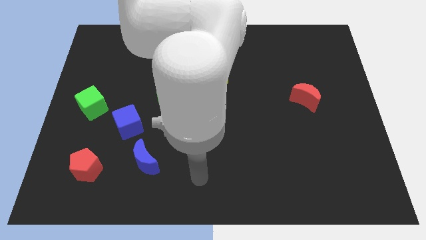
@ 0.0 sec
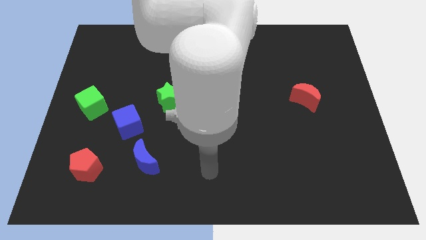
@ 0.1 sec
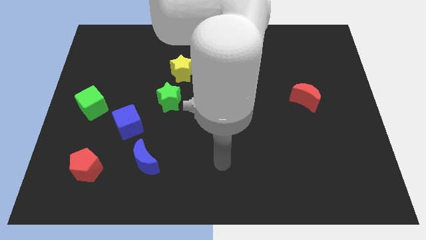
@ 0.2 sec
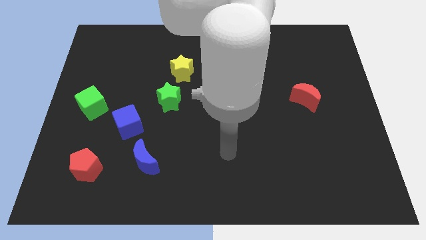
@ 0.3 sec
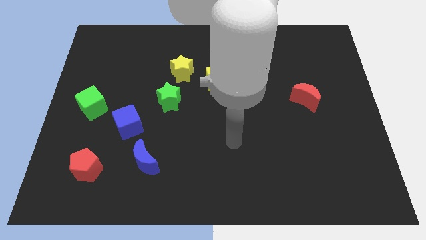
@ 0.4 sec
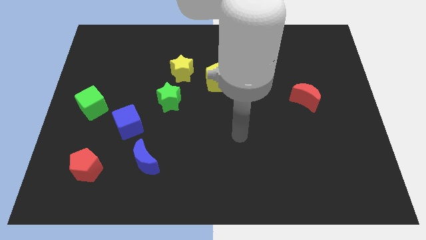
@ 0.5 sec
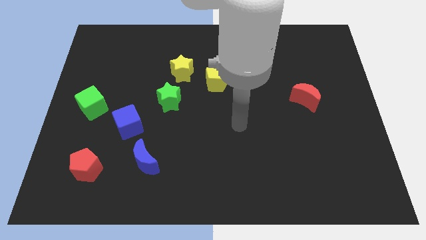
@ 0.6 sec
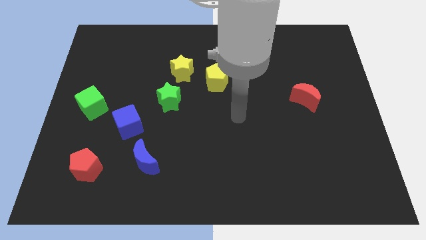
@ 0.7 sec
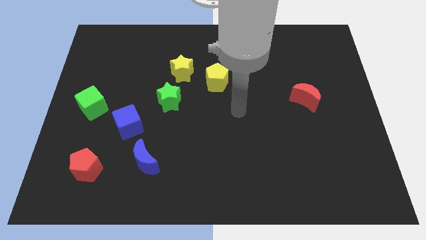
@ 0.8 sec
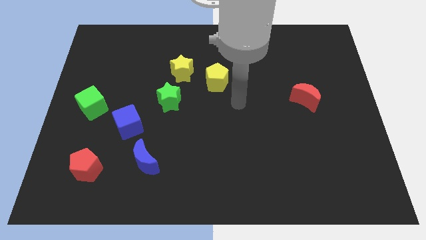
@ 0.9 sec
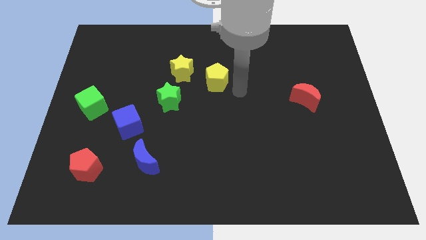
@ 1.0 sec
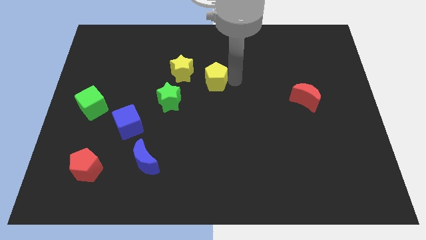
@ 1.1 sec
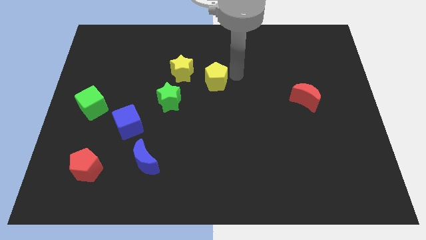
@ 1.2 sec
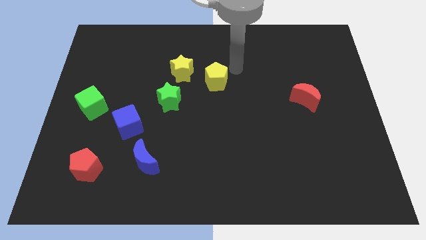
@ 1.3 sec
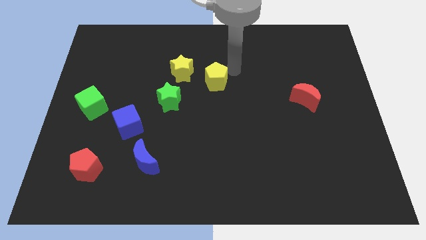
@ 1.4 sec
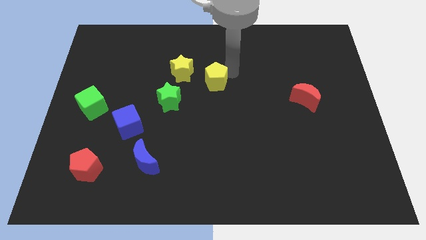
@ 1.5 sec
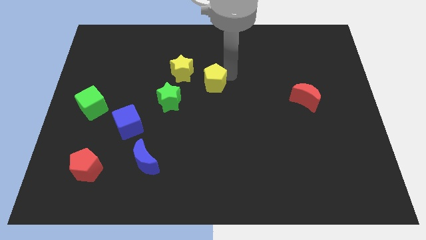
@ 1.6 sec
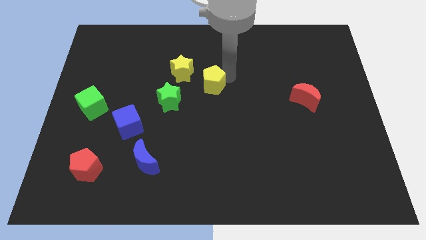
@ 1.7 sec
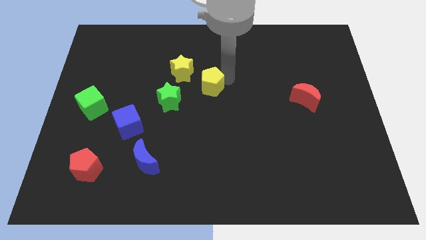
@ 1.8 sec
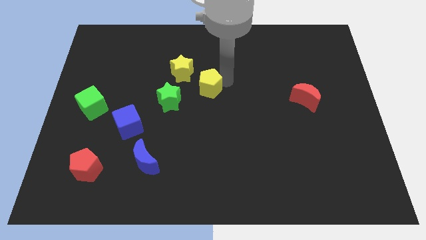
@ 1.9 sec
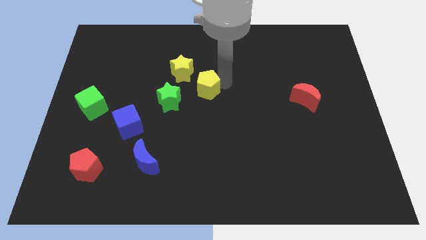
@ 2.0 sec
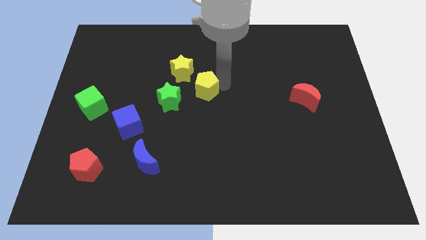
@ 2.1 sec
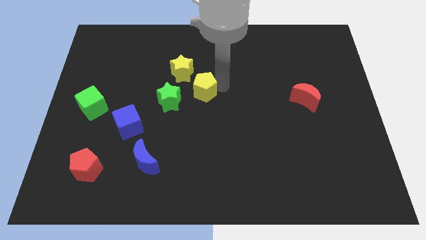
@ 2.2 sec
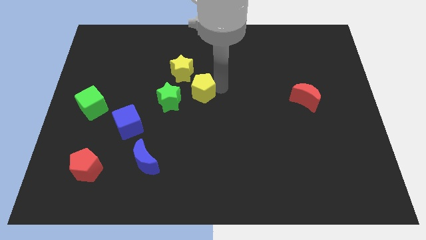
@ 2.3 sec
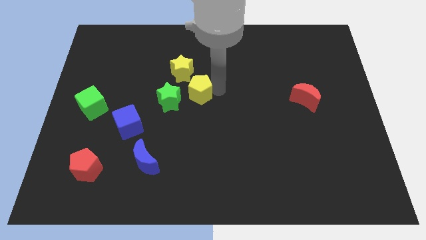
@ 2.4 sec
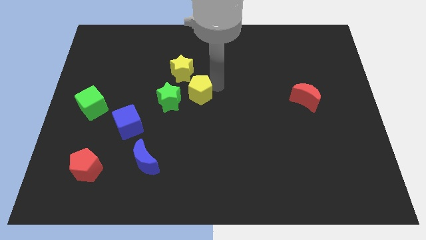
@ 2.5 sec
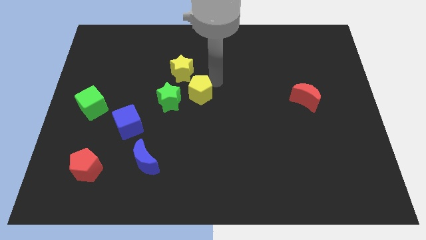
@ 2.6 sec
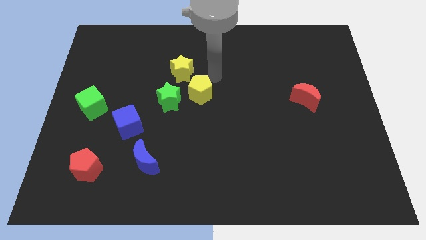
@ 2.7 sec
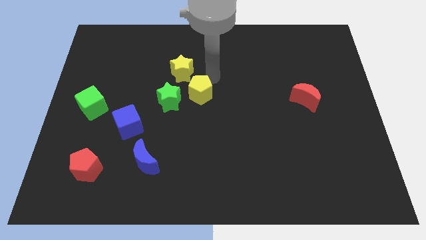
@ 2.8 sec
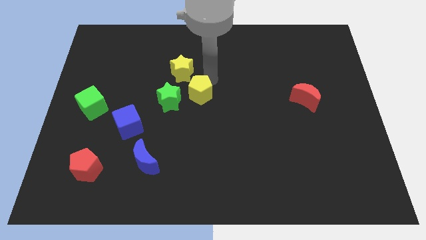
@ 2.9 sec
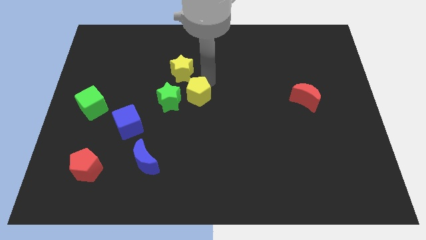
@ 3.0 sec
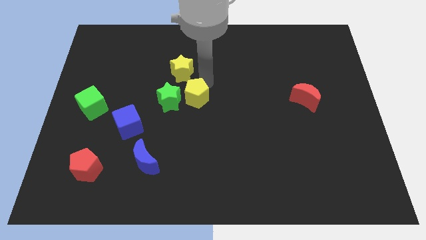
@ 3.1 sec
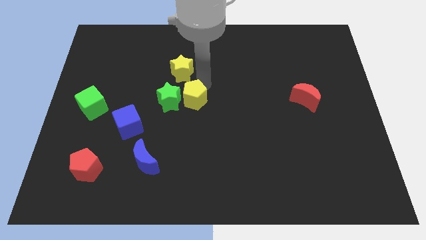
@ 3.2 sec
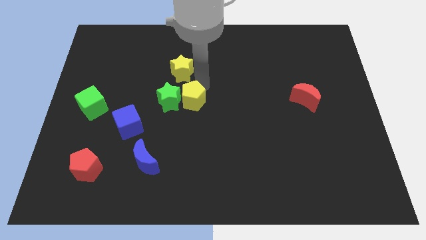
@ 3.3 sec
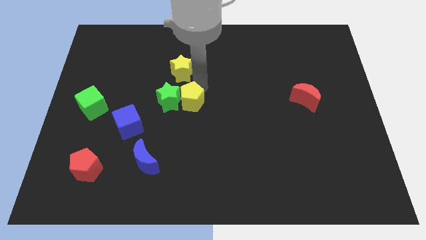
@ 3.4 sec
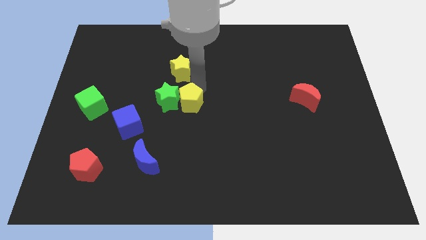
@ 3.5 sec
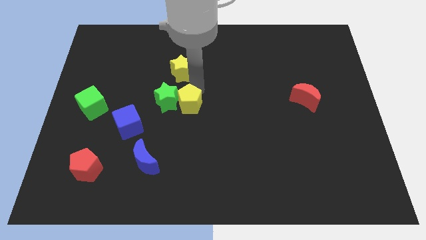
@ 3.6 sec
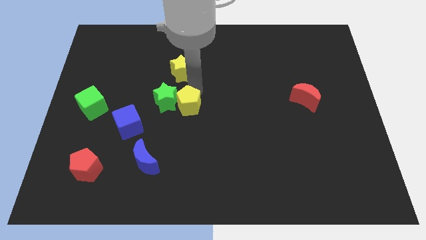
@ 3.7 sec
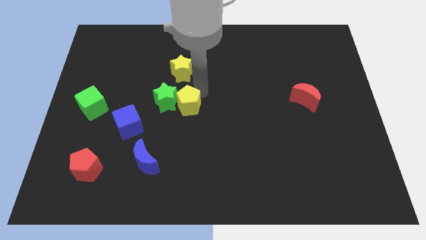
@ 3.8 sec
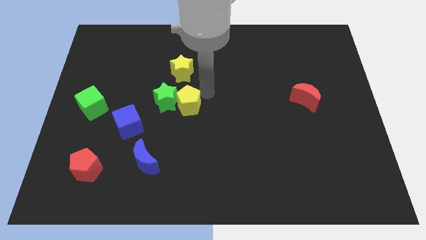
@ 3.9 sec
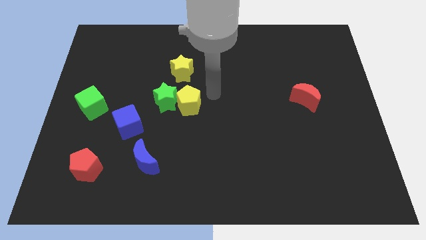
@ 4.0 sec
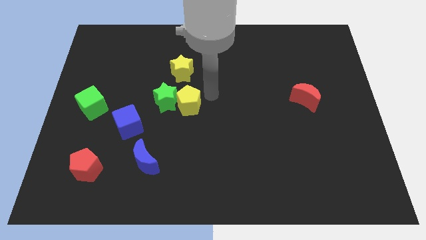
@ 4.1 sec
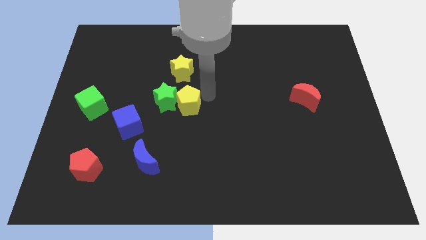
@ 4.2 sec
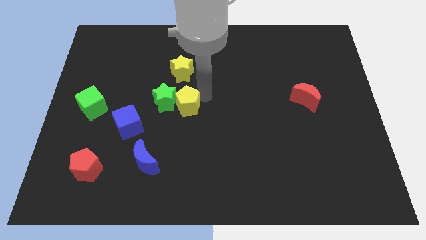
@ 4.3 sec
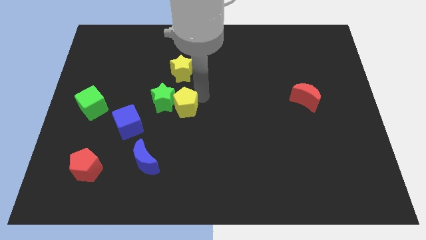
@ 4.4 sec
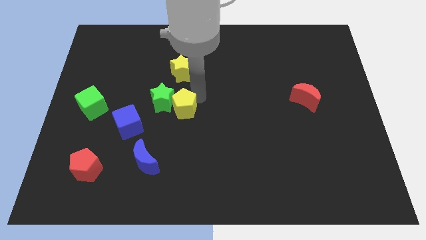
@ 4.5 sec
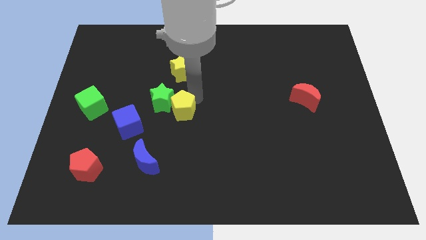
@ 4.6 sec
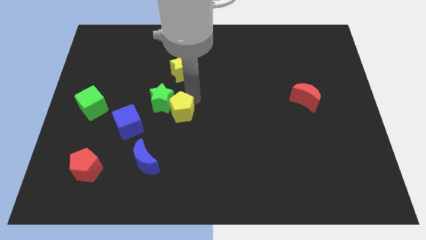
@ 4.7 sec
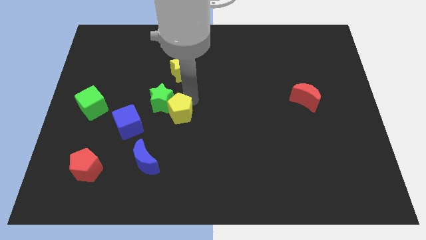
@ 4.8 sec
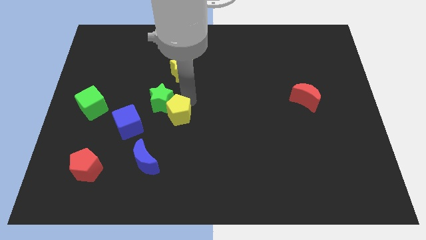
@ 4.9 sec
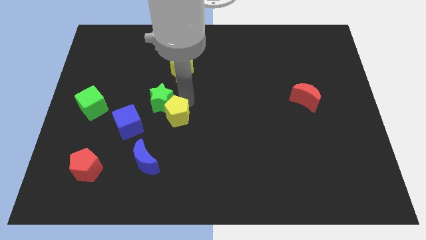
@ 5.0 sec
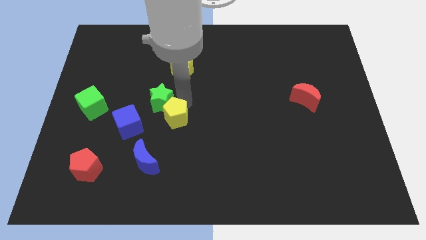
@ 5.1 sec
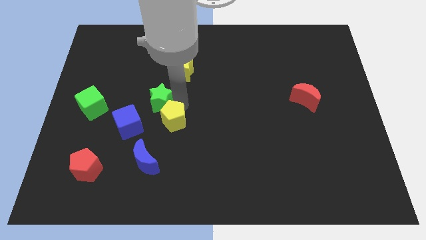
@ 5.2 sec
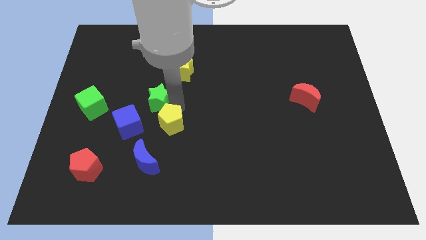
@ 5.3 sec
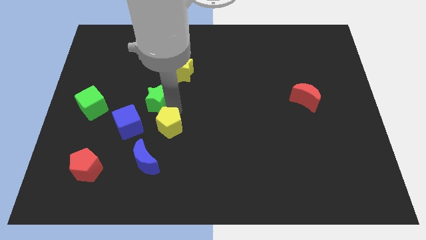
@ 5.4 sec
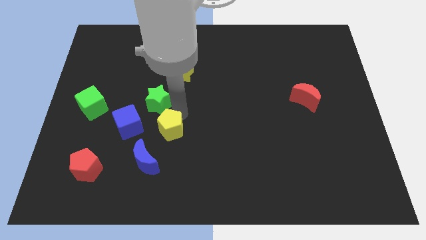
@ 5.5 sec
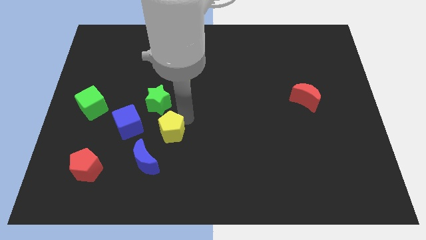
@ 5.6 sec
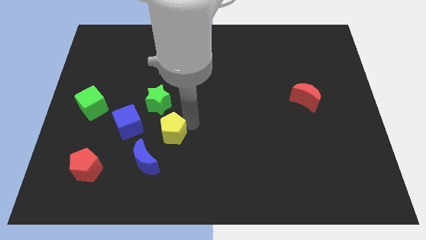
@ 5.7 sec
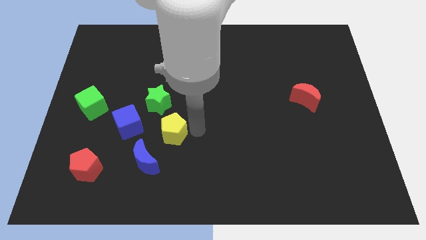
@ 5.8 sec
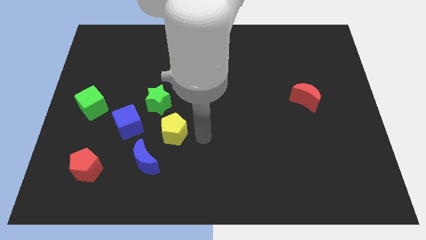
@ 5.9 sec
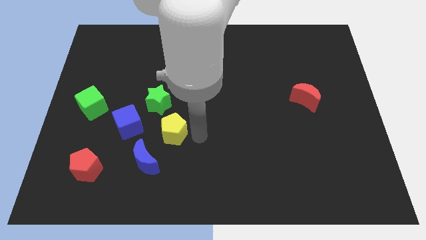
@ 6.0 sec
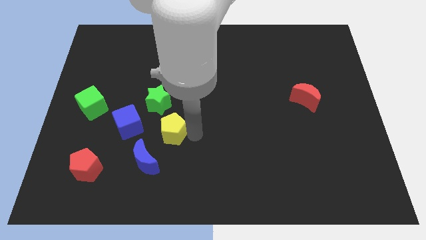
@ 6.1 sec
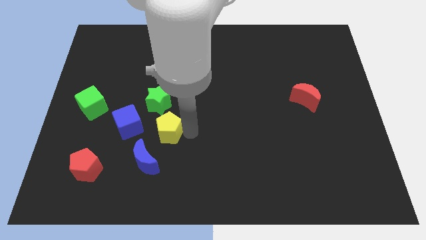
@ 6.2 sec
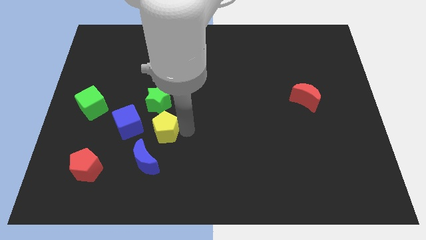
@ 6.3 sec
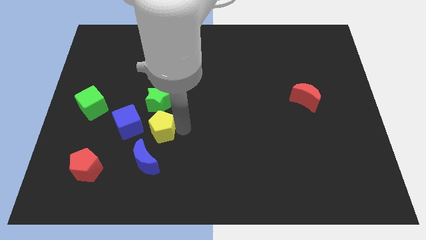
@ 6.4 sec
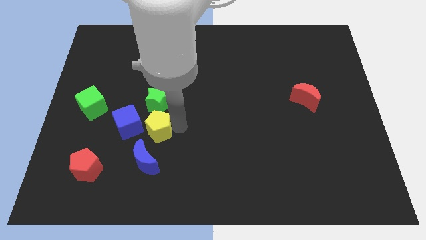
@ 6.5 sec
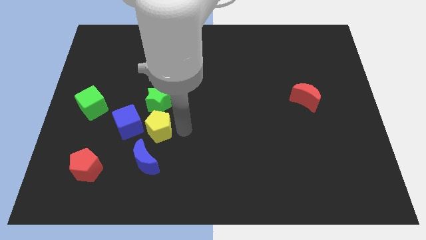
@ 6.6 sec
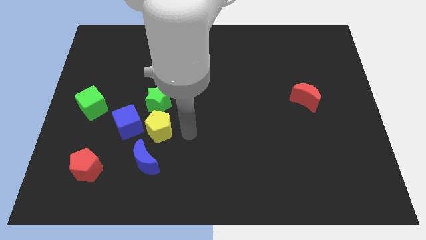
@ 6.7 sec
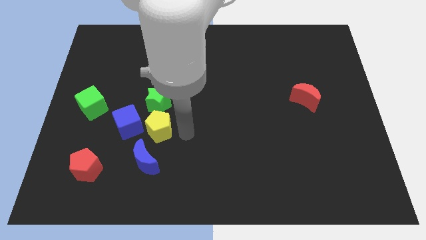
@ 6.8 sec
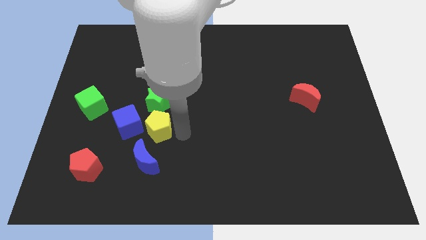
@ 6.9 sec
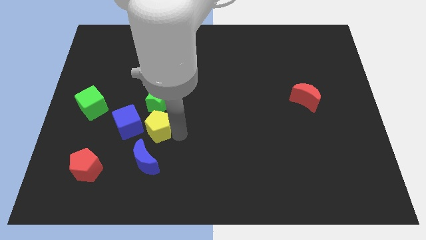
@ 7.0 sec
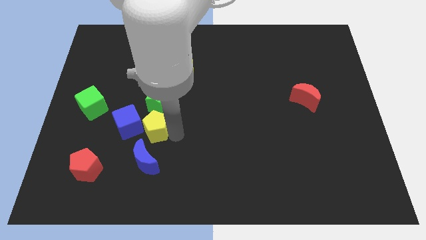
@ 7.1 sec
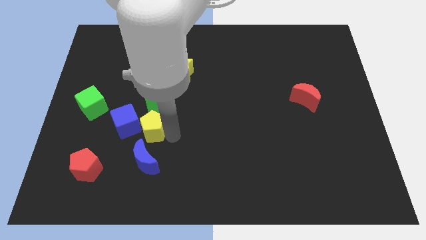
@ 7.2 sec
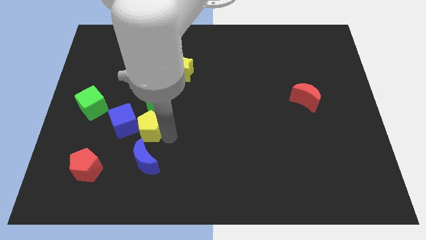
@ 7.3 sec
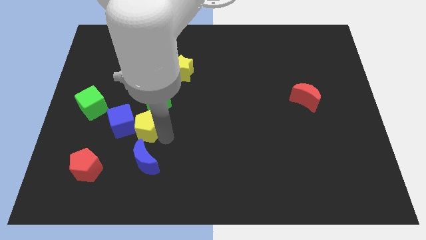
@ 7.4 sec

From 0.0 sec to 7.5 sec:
push the yellow pentagon next to the blue cube

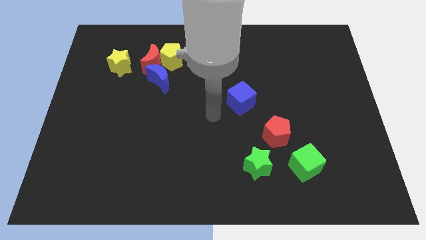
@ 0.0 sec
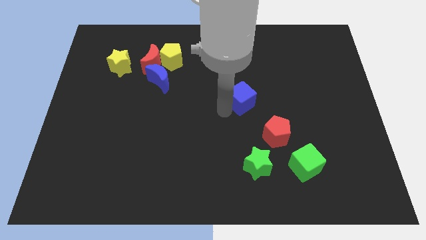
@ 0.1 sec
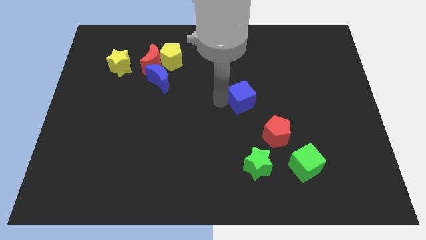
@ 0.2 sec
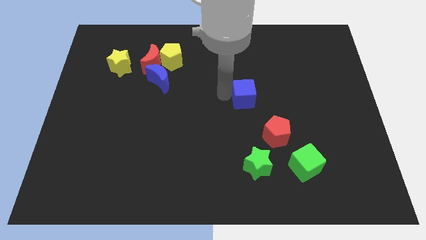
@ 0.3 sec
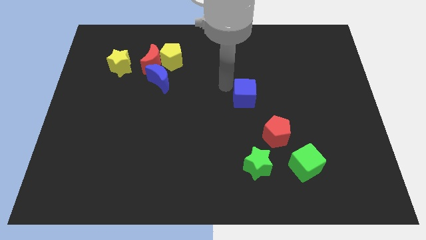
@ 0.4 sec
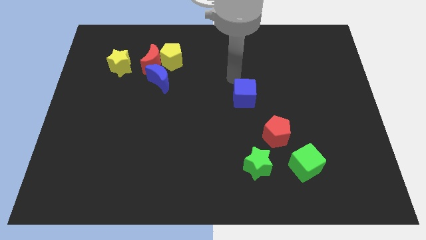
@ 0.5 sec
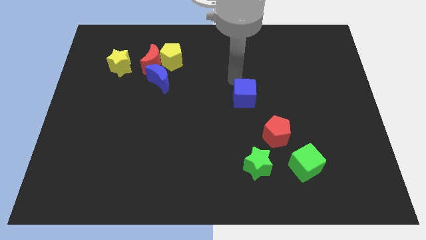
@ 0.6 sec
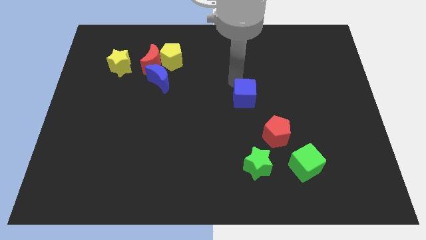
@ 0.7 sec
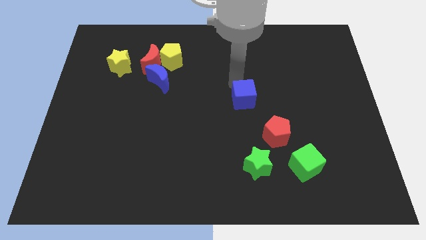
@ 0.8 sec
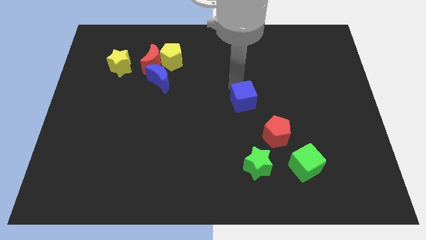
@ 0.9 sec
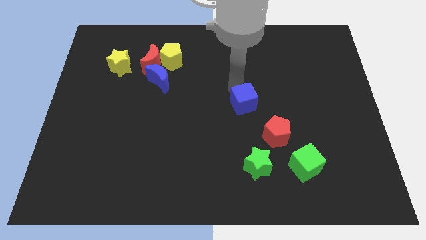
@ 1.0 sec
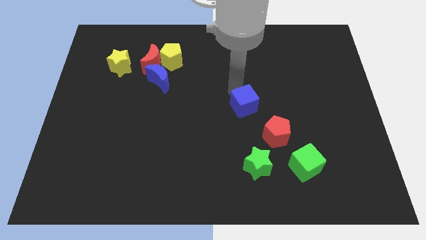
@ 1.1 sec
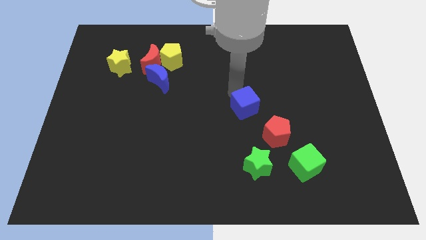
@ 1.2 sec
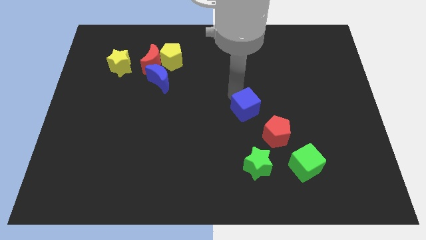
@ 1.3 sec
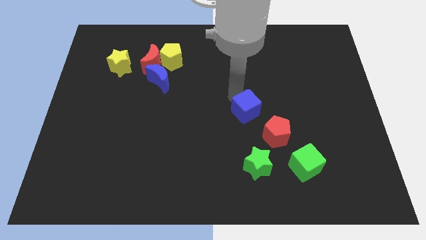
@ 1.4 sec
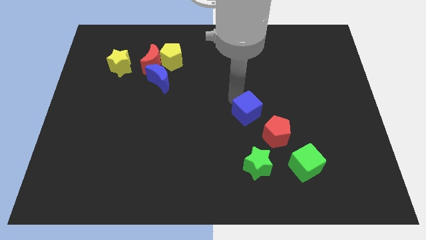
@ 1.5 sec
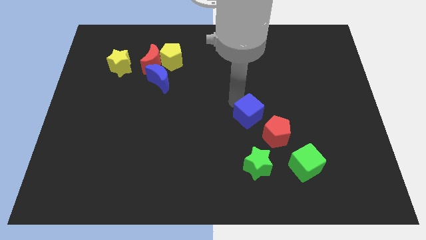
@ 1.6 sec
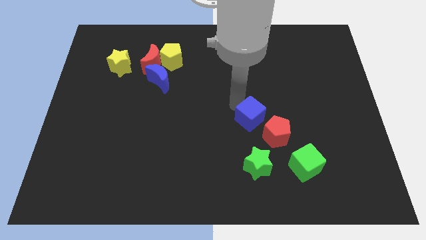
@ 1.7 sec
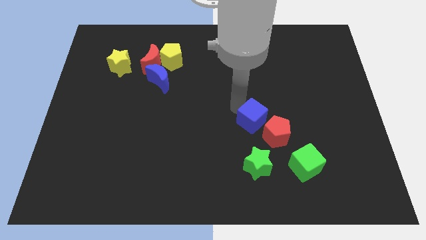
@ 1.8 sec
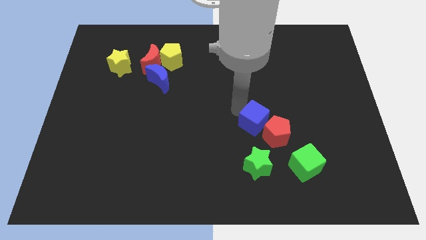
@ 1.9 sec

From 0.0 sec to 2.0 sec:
push the blue cube to the red pentagon
